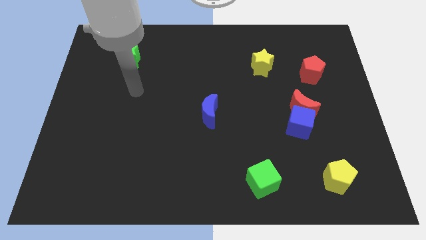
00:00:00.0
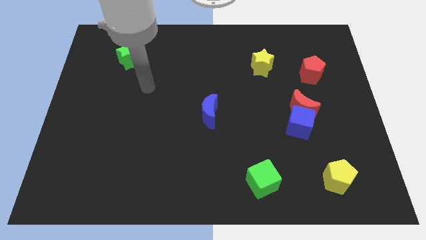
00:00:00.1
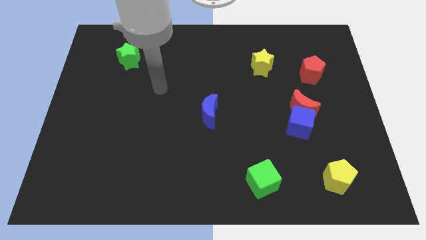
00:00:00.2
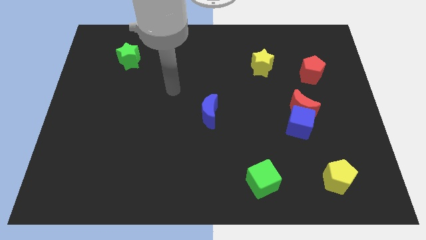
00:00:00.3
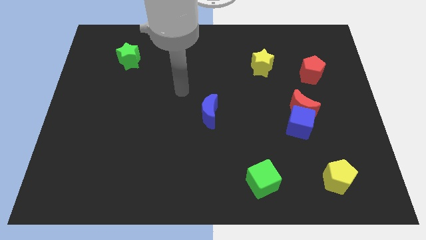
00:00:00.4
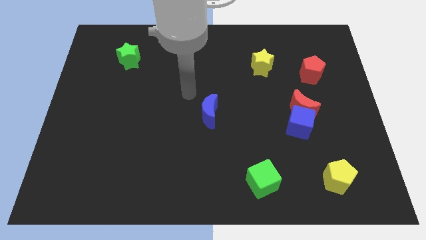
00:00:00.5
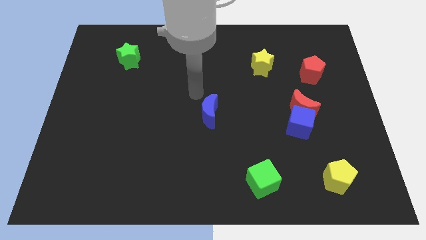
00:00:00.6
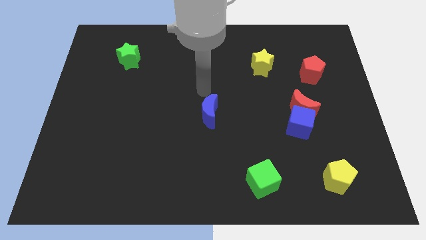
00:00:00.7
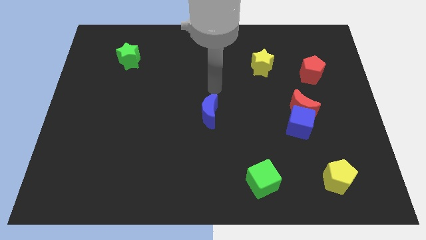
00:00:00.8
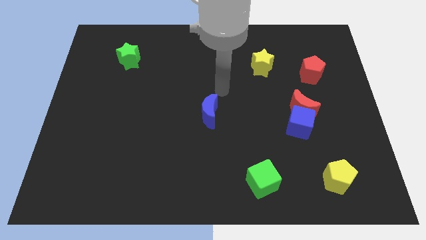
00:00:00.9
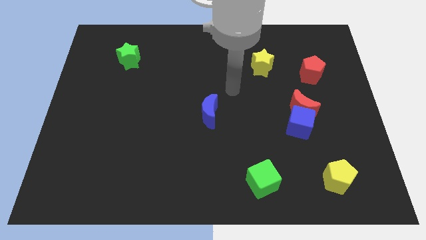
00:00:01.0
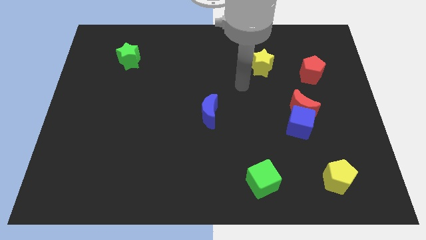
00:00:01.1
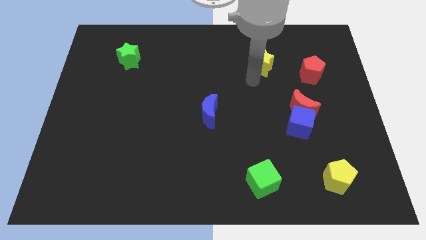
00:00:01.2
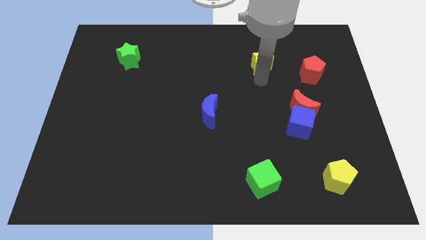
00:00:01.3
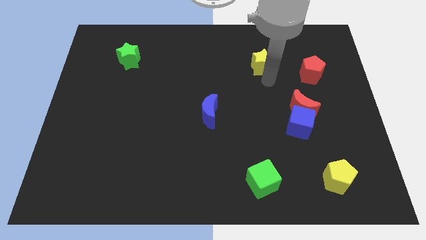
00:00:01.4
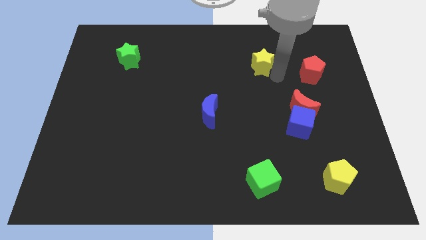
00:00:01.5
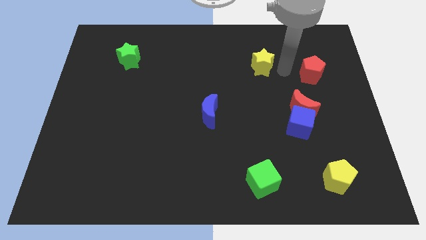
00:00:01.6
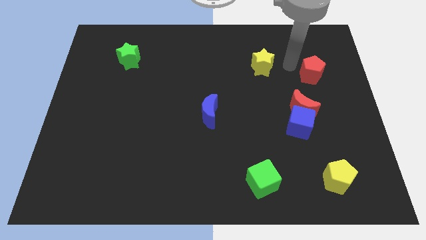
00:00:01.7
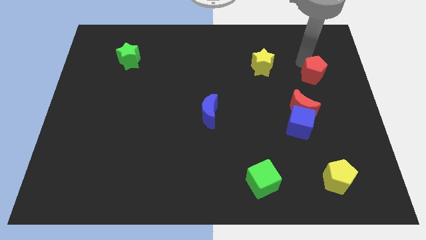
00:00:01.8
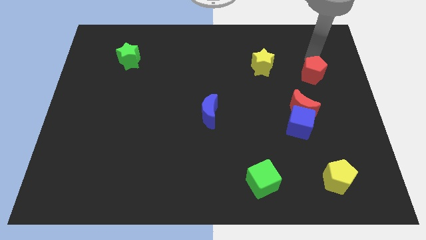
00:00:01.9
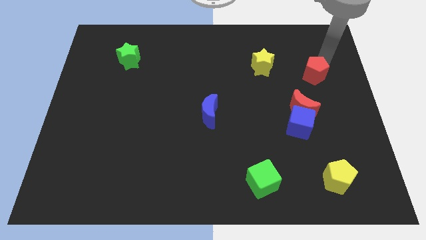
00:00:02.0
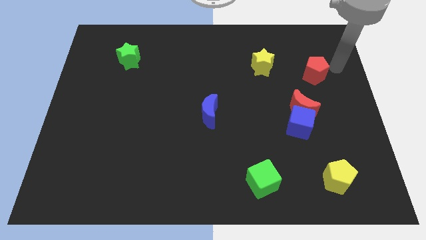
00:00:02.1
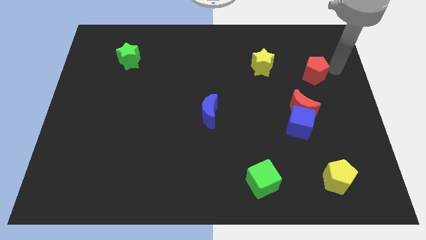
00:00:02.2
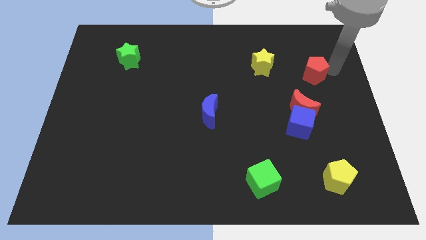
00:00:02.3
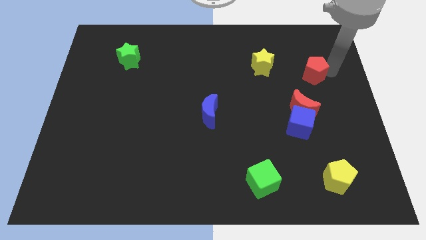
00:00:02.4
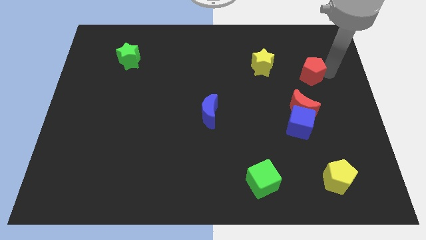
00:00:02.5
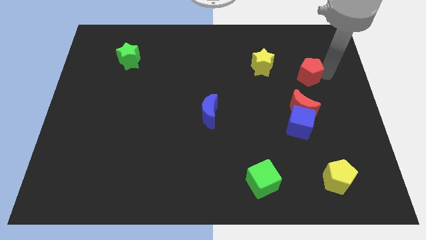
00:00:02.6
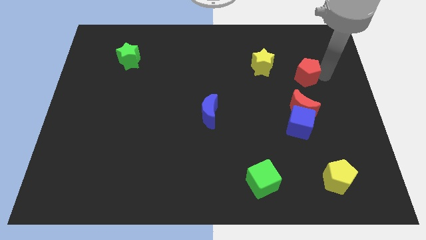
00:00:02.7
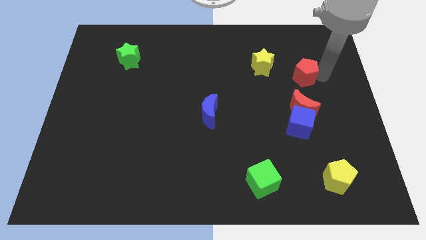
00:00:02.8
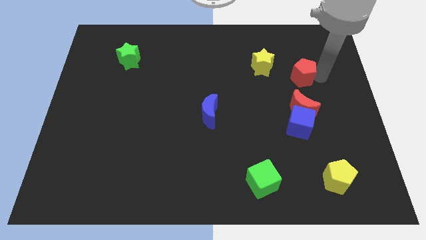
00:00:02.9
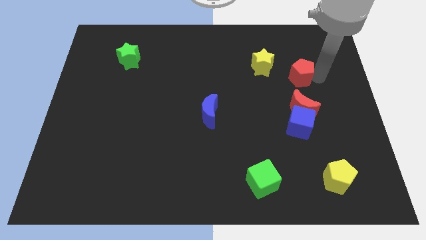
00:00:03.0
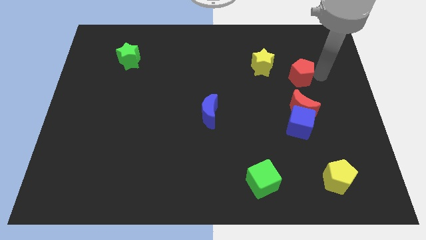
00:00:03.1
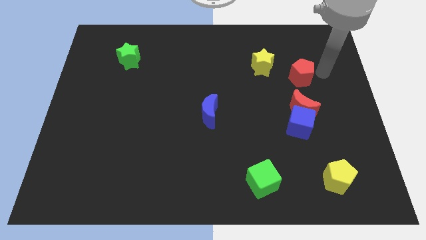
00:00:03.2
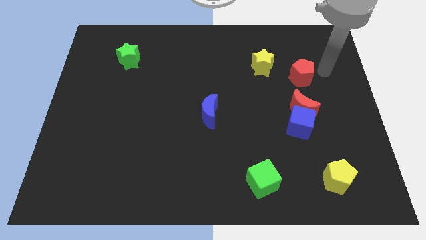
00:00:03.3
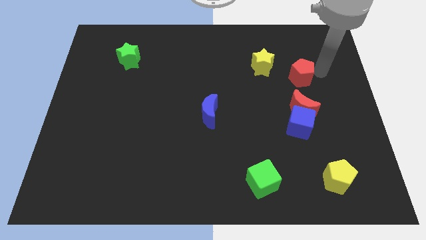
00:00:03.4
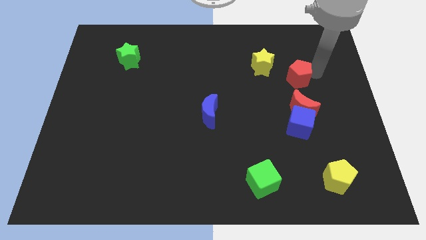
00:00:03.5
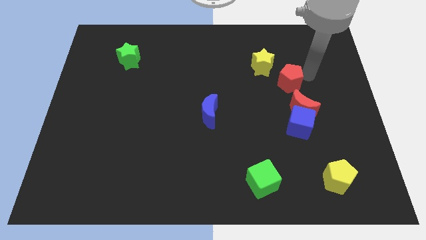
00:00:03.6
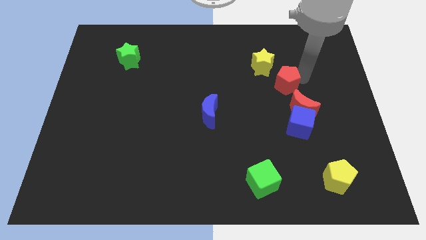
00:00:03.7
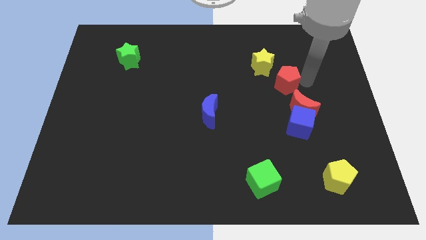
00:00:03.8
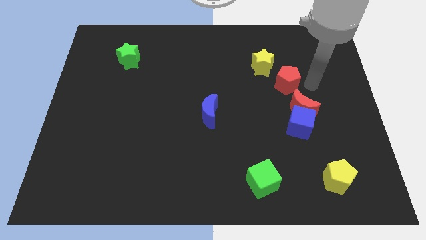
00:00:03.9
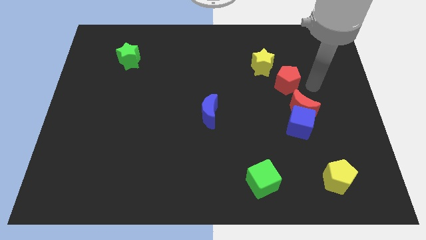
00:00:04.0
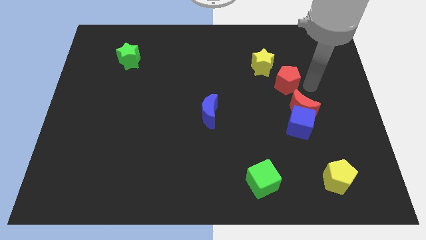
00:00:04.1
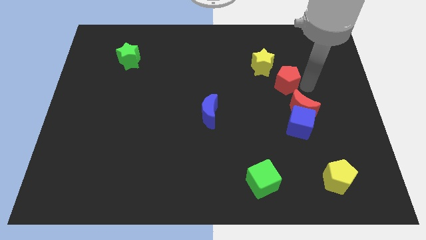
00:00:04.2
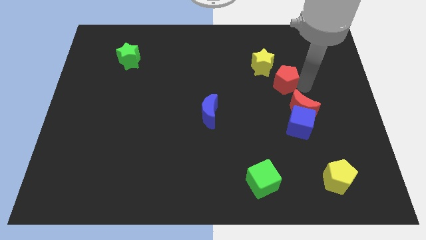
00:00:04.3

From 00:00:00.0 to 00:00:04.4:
slide the red pentagon to the left a bit

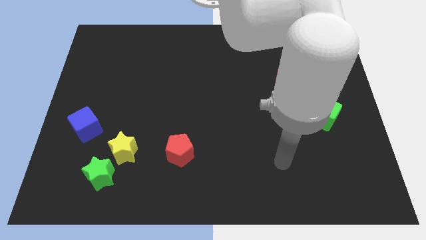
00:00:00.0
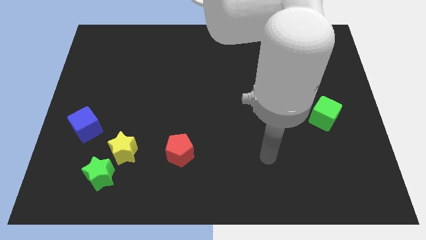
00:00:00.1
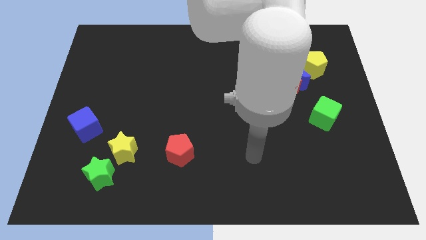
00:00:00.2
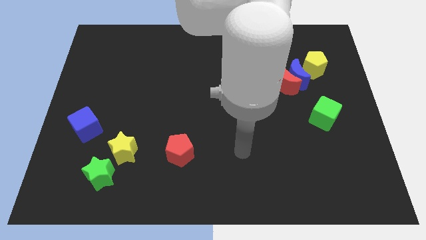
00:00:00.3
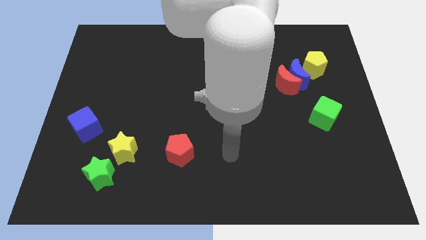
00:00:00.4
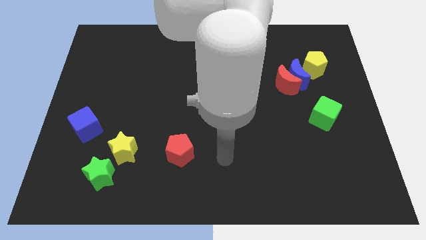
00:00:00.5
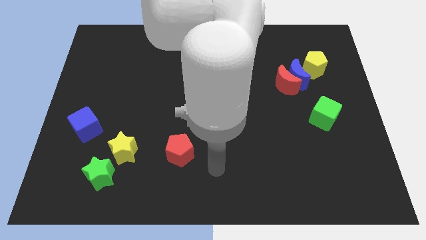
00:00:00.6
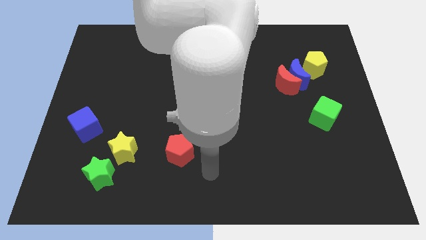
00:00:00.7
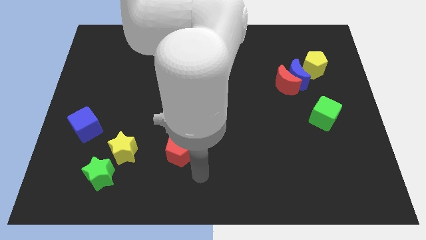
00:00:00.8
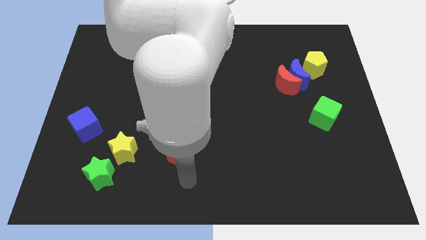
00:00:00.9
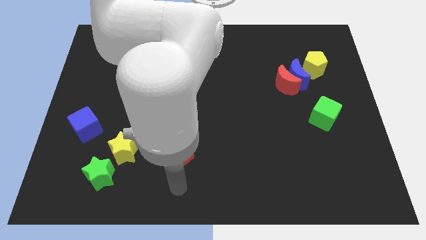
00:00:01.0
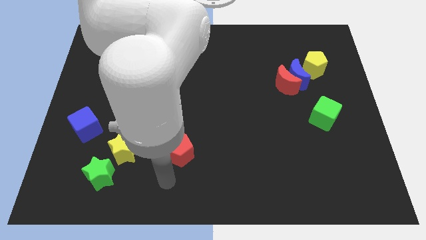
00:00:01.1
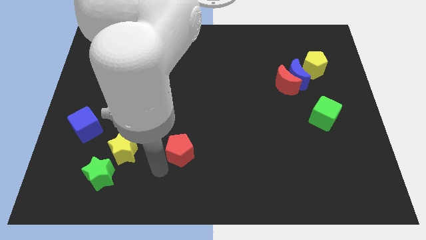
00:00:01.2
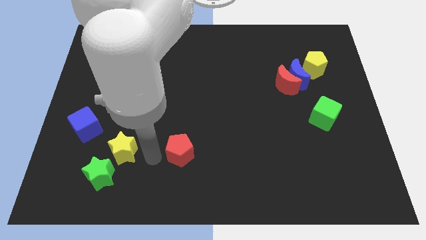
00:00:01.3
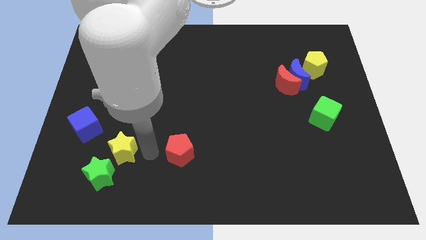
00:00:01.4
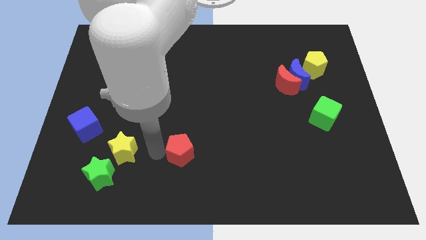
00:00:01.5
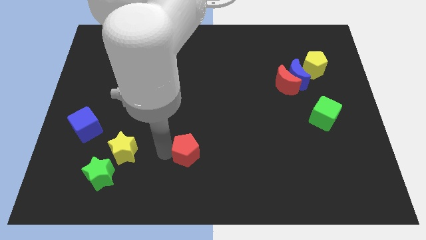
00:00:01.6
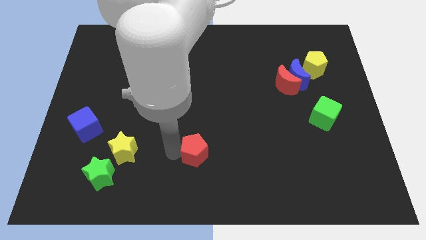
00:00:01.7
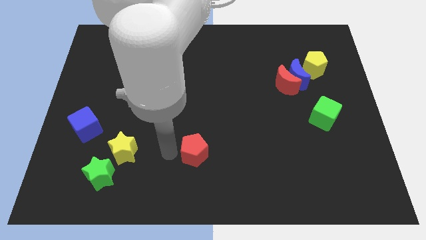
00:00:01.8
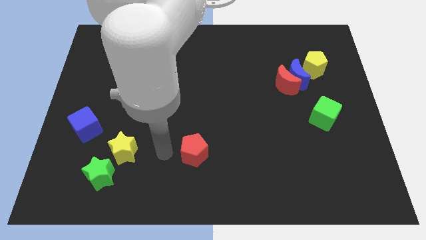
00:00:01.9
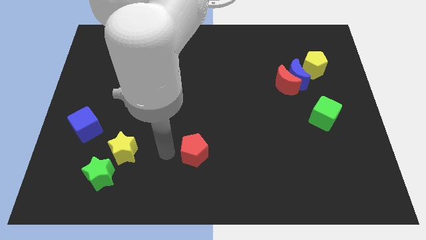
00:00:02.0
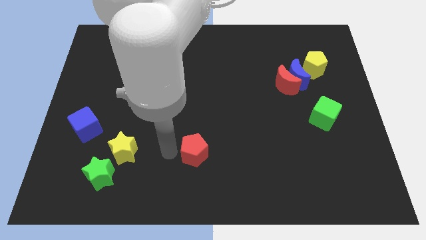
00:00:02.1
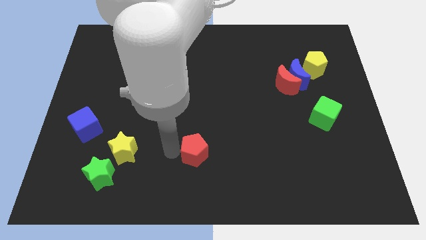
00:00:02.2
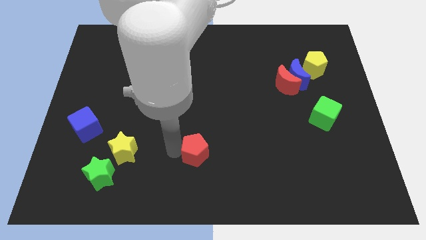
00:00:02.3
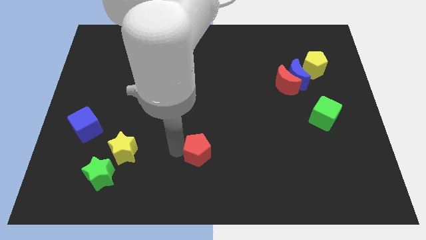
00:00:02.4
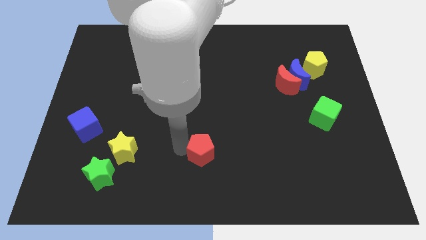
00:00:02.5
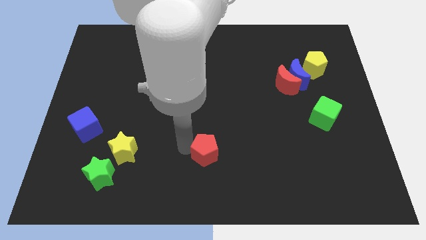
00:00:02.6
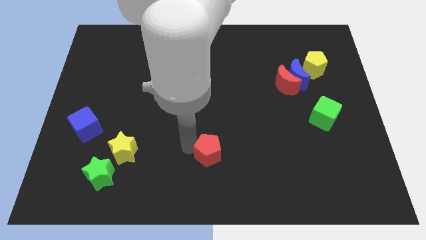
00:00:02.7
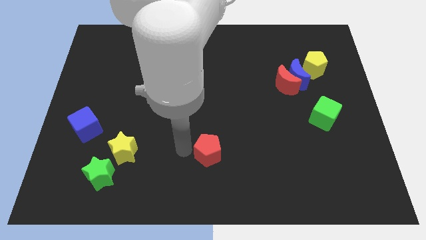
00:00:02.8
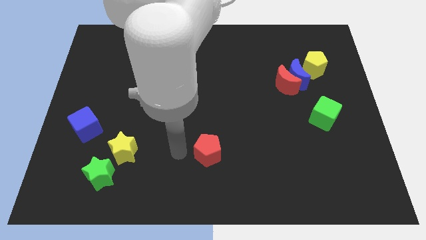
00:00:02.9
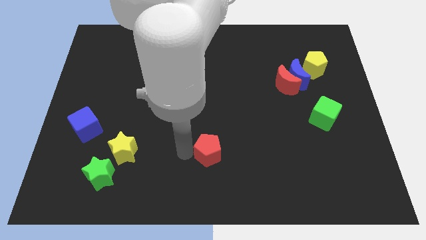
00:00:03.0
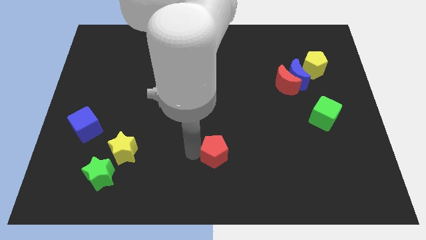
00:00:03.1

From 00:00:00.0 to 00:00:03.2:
slide the red pentagon slightly to the right

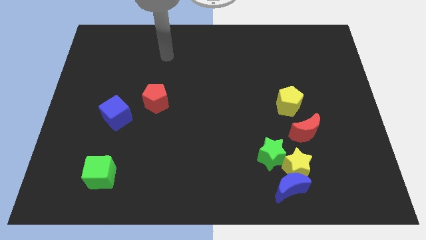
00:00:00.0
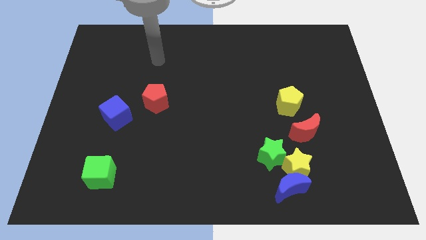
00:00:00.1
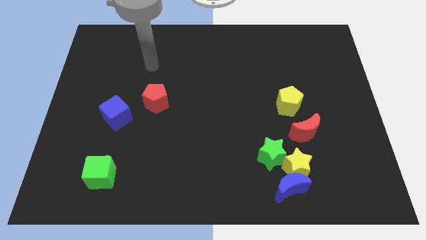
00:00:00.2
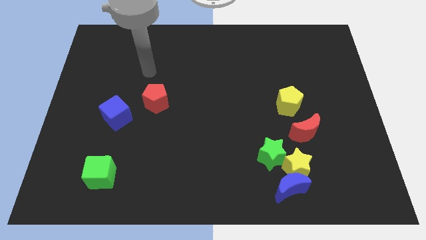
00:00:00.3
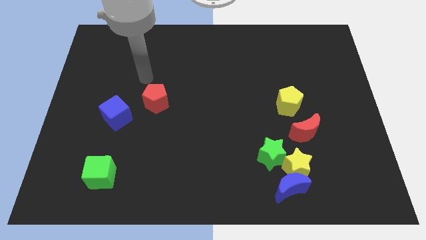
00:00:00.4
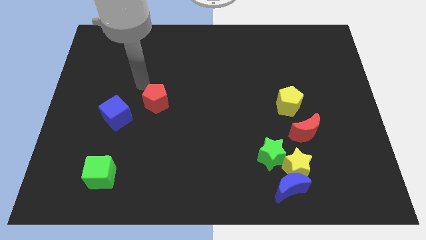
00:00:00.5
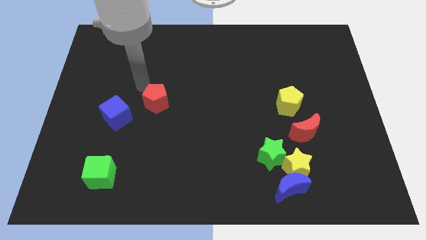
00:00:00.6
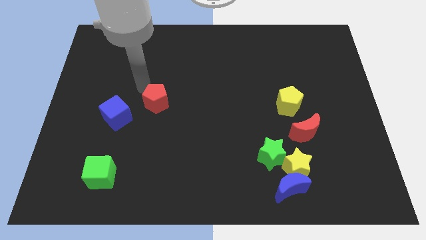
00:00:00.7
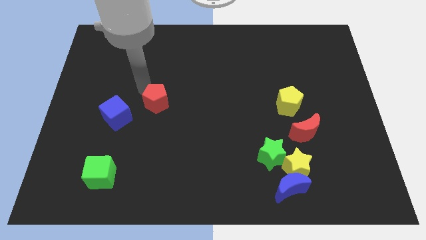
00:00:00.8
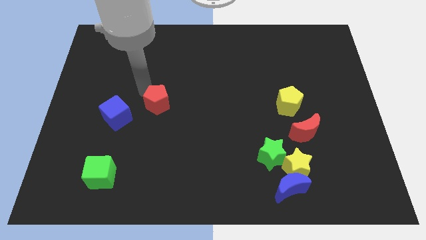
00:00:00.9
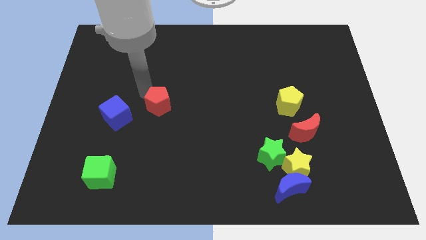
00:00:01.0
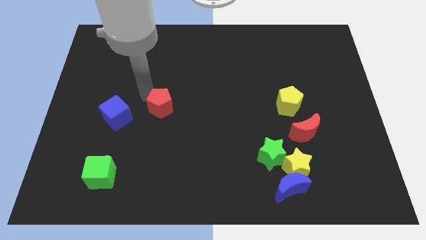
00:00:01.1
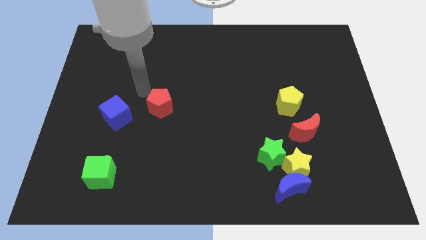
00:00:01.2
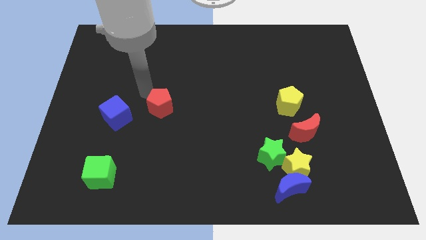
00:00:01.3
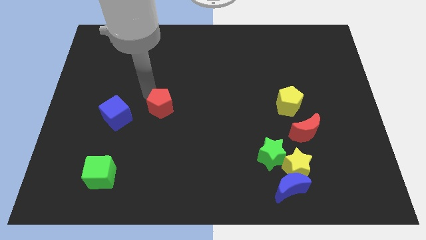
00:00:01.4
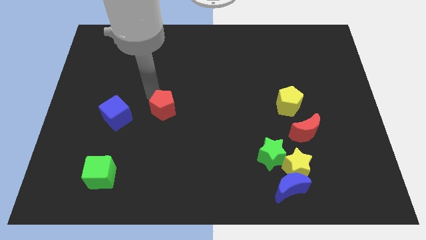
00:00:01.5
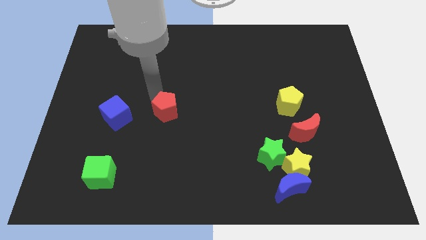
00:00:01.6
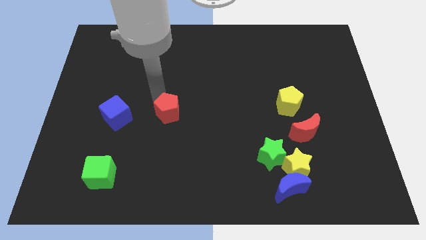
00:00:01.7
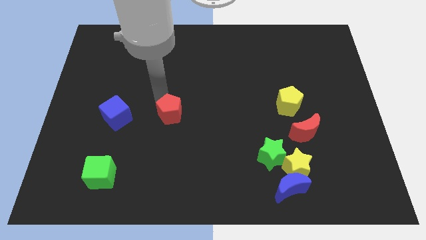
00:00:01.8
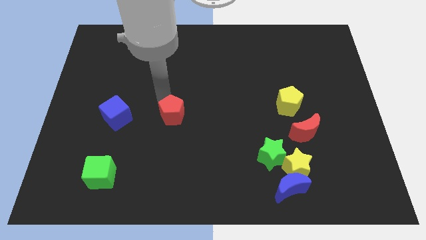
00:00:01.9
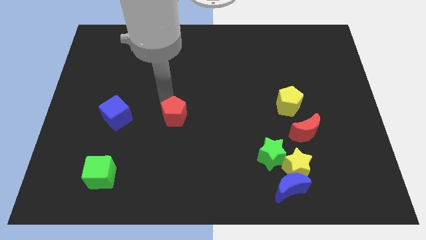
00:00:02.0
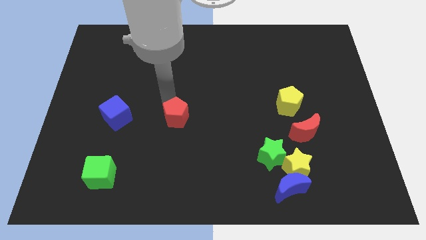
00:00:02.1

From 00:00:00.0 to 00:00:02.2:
slightly slide the red pentagon down and then to the right
